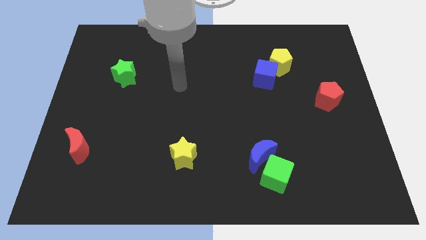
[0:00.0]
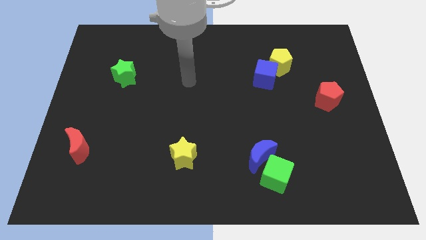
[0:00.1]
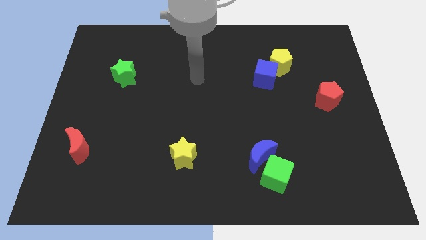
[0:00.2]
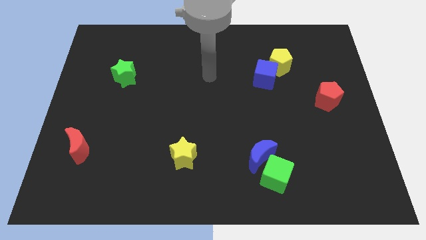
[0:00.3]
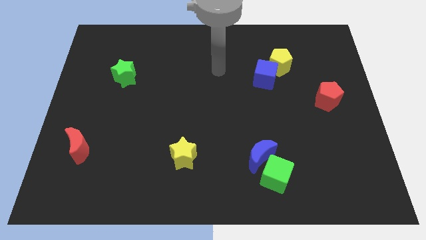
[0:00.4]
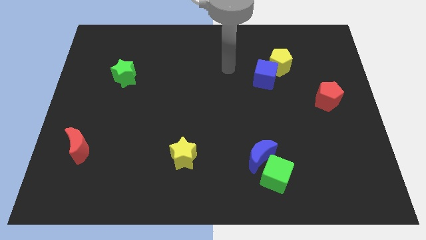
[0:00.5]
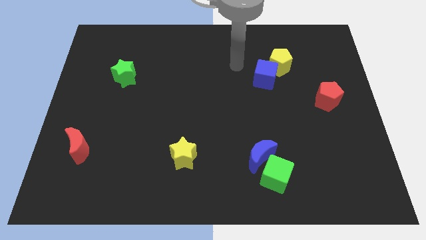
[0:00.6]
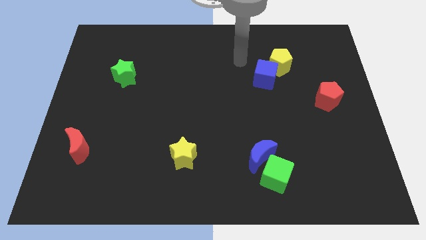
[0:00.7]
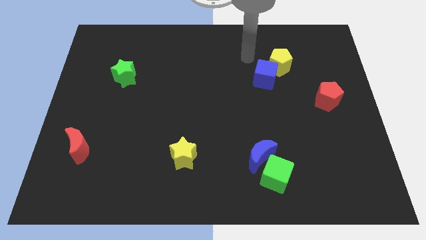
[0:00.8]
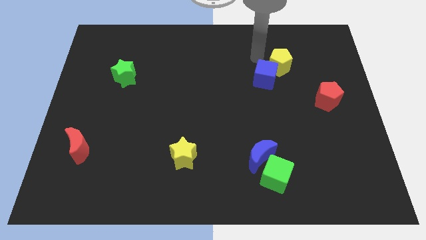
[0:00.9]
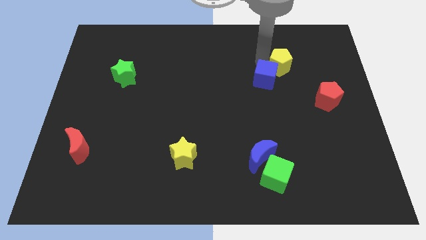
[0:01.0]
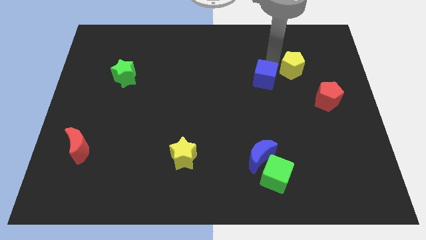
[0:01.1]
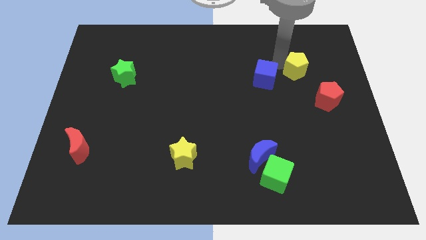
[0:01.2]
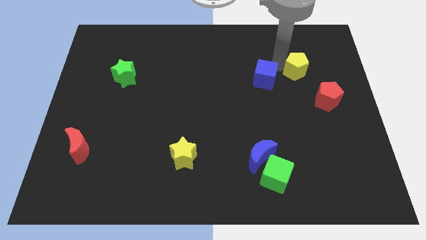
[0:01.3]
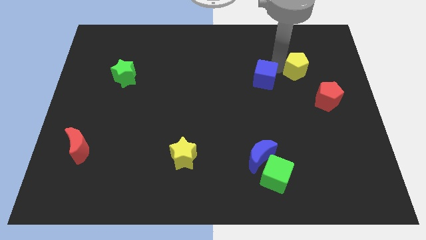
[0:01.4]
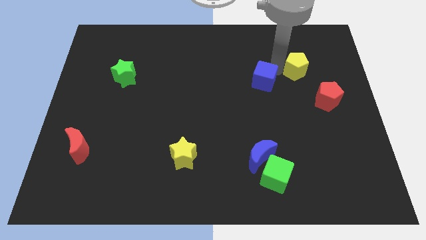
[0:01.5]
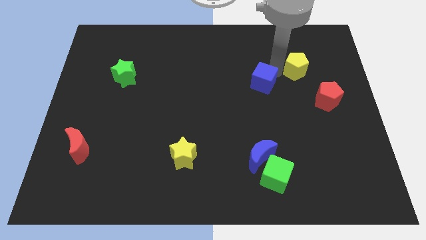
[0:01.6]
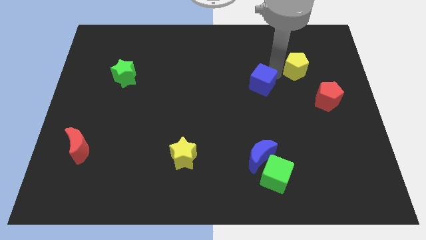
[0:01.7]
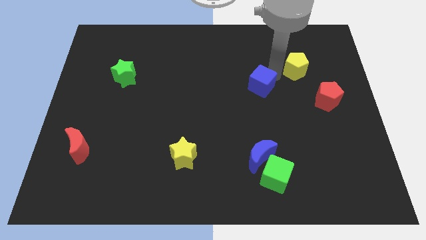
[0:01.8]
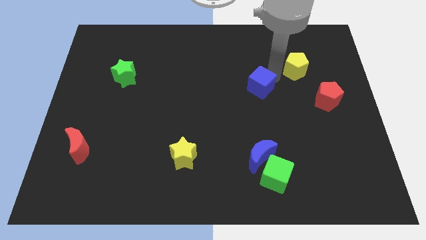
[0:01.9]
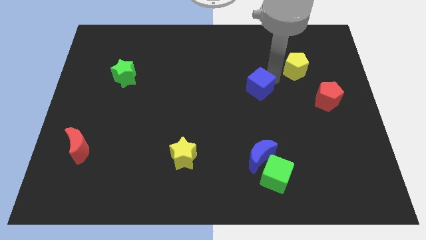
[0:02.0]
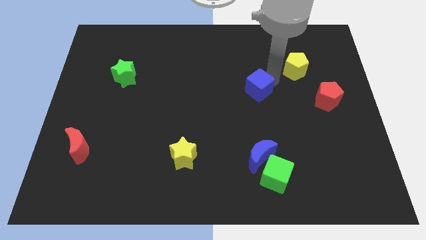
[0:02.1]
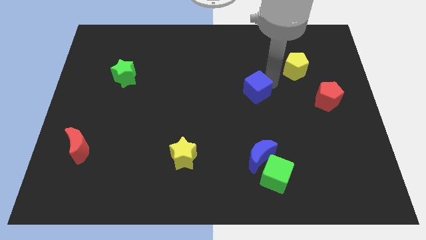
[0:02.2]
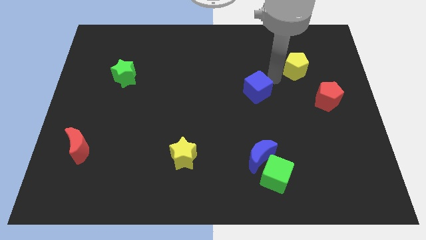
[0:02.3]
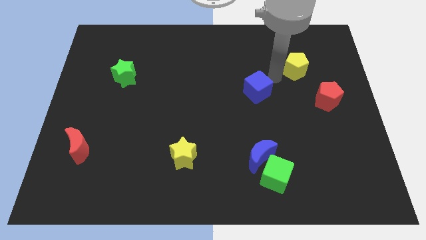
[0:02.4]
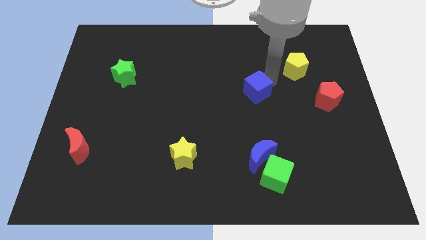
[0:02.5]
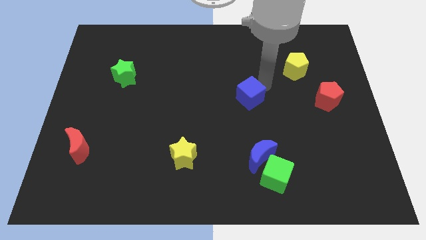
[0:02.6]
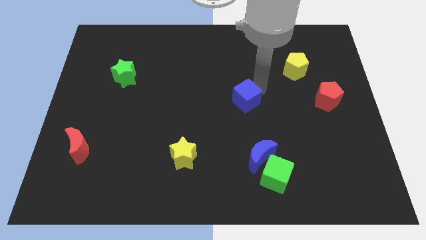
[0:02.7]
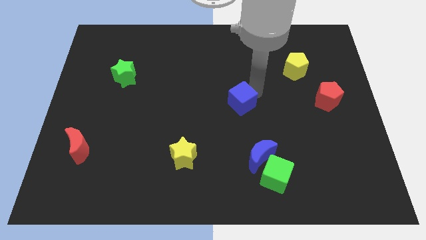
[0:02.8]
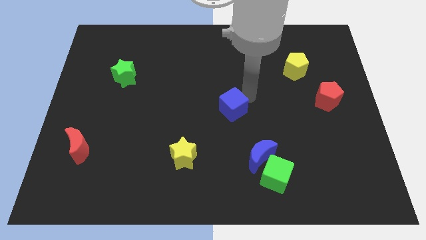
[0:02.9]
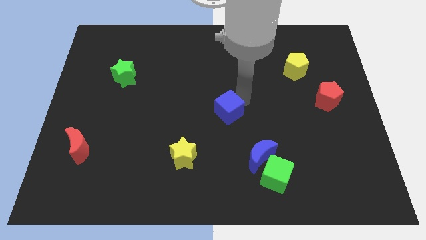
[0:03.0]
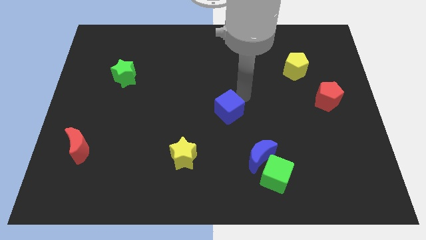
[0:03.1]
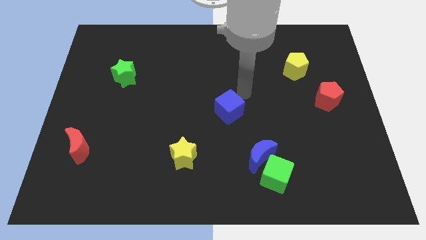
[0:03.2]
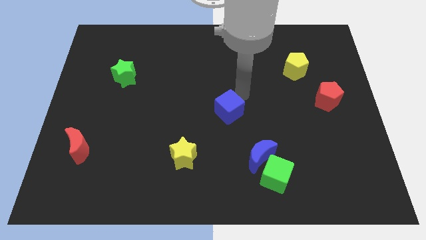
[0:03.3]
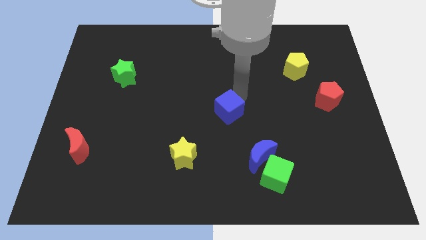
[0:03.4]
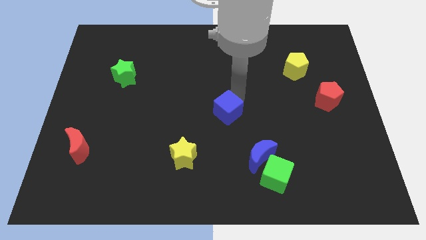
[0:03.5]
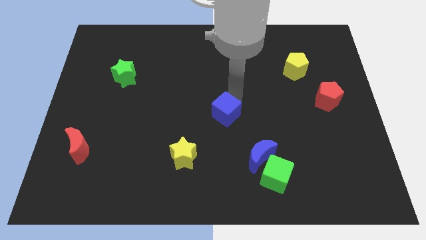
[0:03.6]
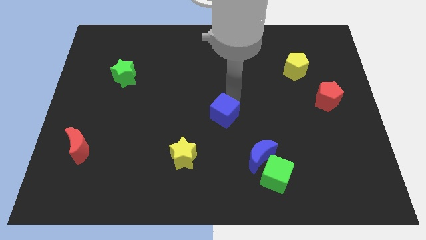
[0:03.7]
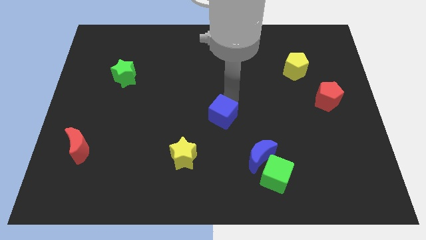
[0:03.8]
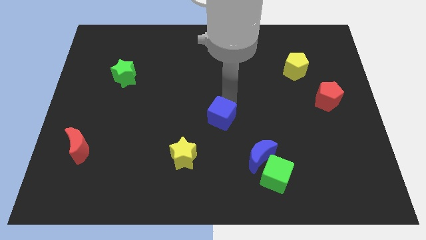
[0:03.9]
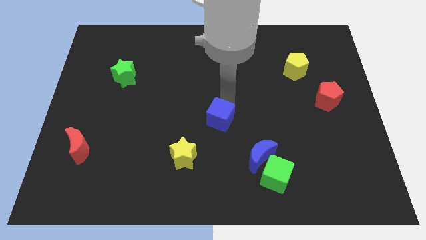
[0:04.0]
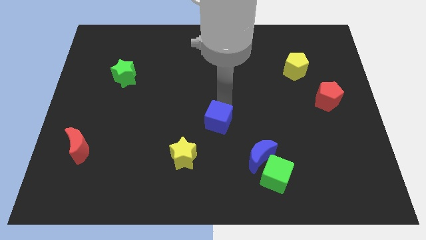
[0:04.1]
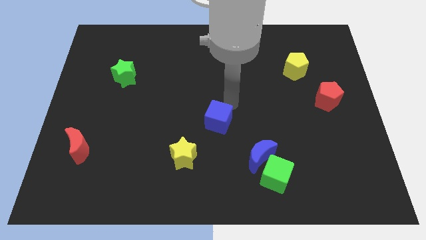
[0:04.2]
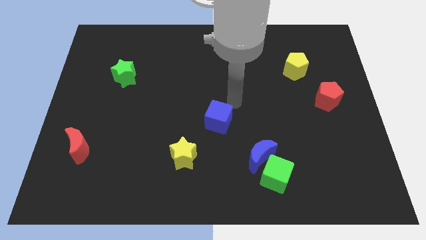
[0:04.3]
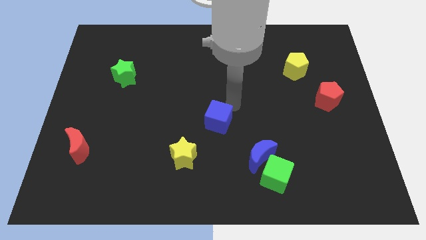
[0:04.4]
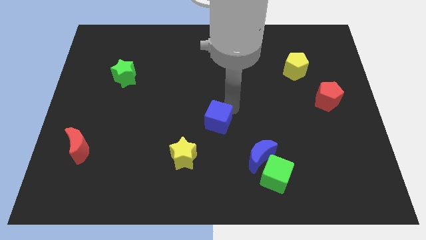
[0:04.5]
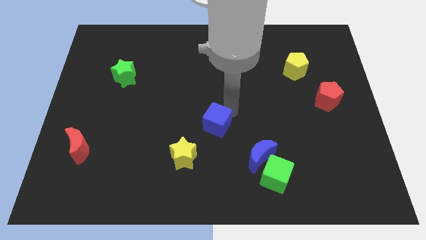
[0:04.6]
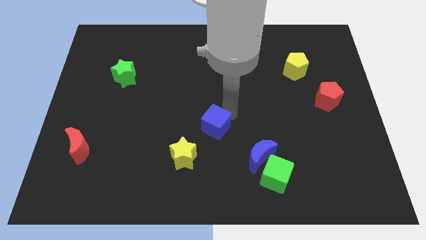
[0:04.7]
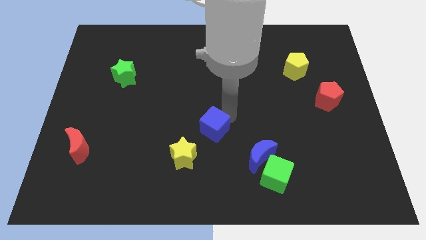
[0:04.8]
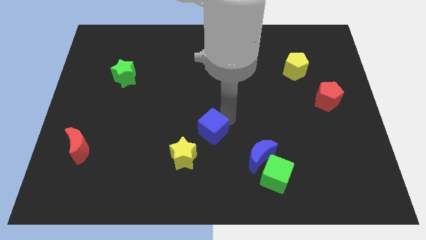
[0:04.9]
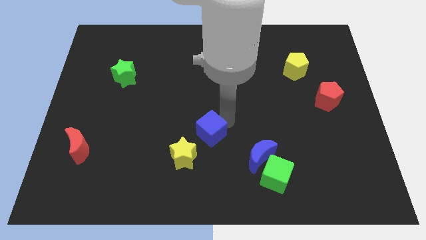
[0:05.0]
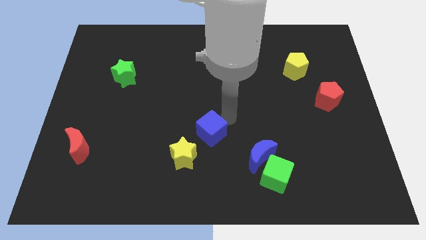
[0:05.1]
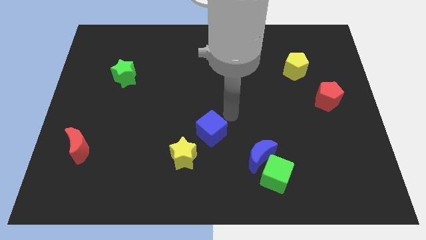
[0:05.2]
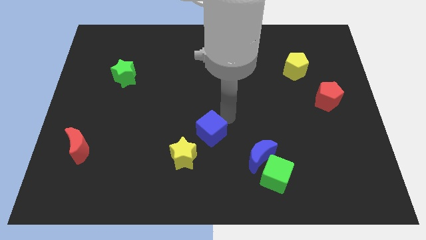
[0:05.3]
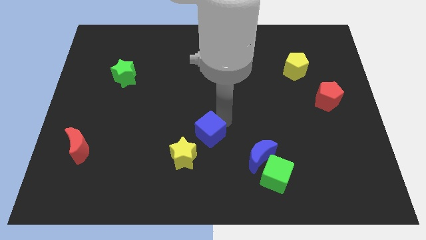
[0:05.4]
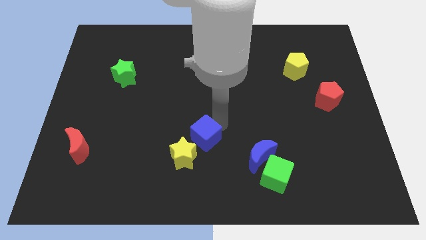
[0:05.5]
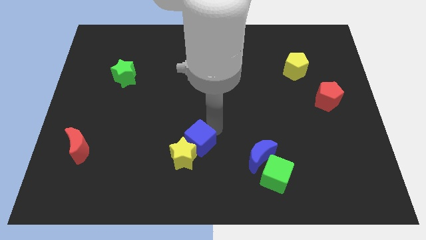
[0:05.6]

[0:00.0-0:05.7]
push the blue cube to the yellow star

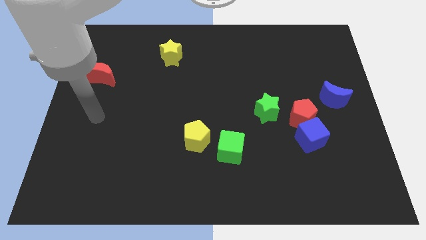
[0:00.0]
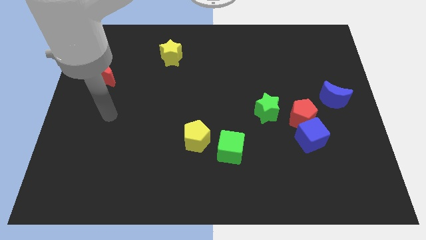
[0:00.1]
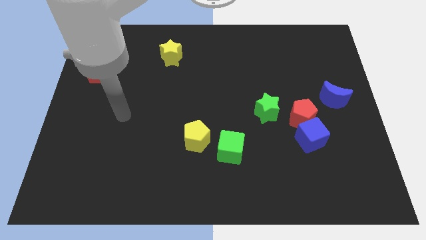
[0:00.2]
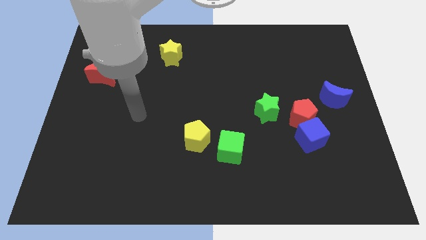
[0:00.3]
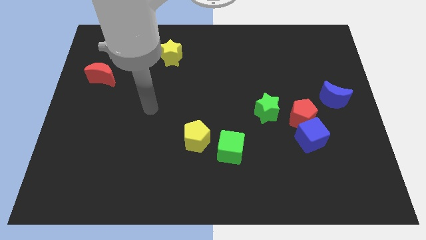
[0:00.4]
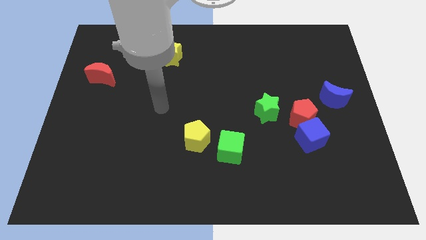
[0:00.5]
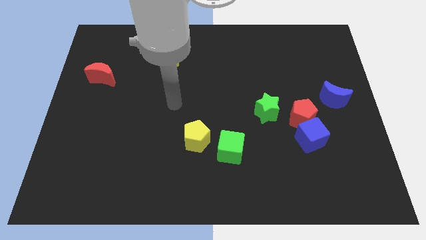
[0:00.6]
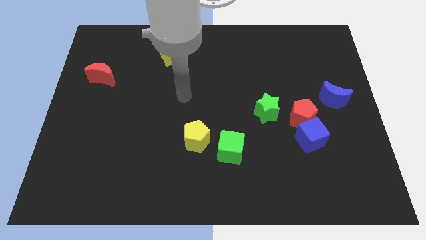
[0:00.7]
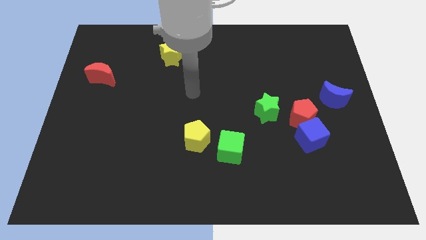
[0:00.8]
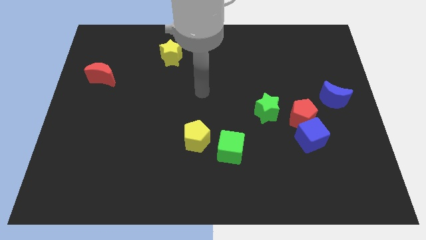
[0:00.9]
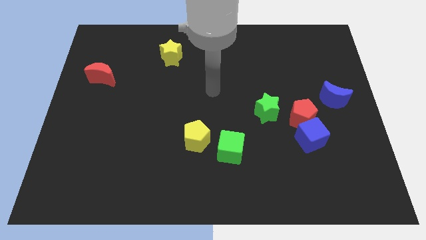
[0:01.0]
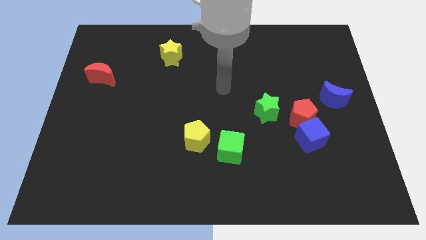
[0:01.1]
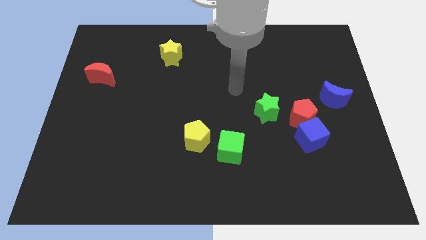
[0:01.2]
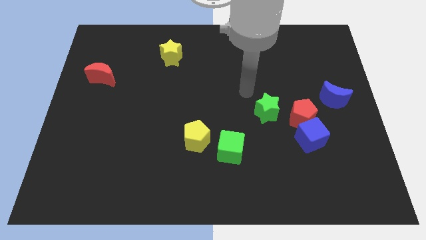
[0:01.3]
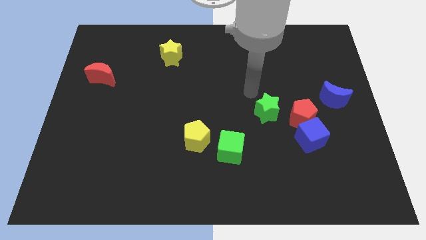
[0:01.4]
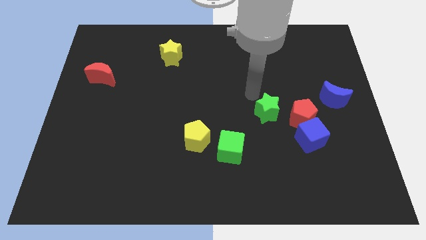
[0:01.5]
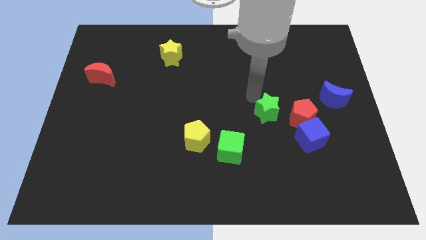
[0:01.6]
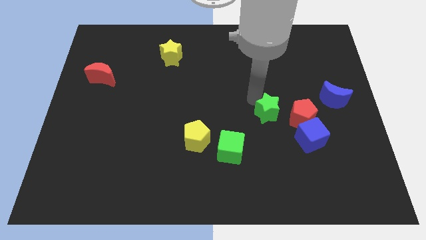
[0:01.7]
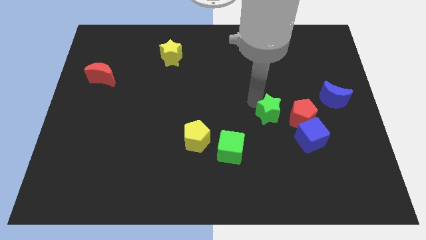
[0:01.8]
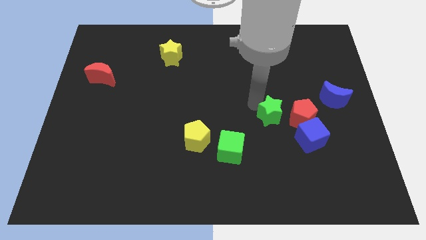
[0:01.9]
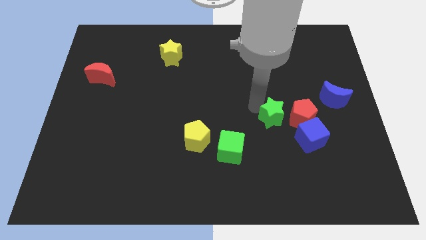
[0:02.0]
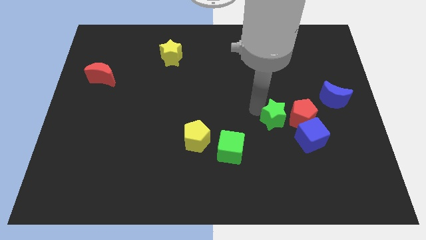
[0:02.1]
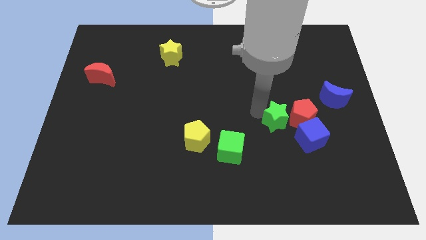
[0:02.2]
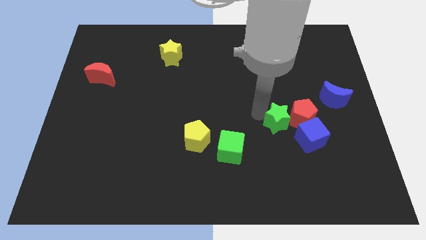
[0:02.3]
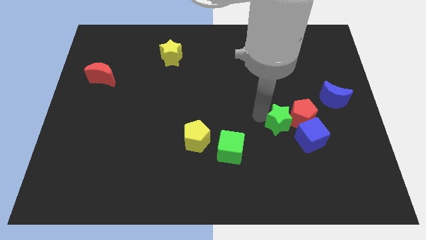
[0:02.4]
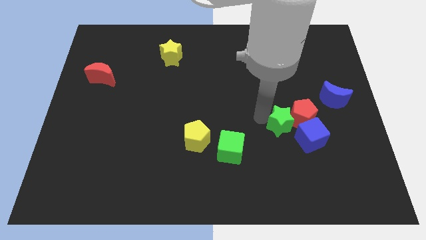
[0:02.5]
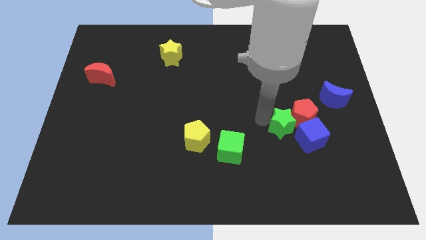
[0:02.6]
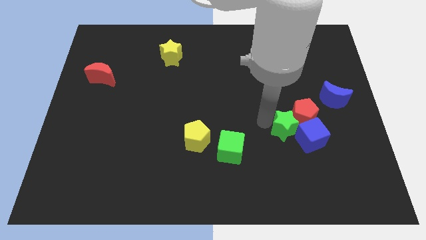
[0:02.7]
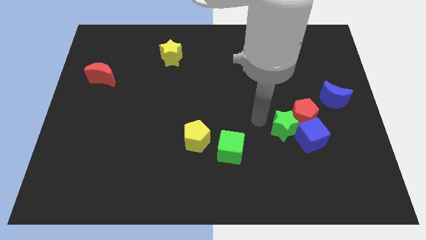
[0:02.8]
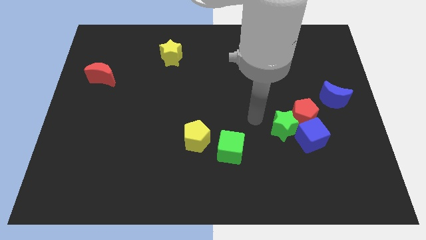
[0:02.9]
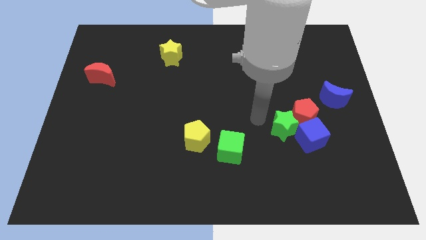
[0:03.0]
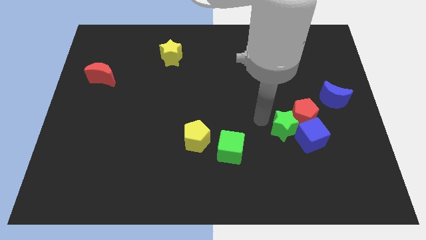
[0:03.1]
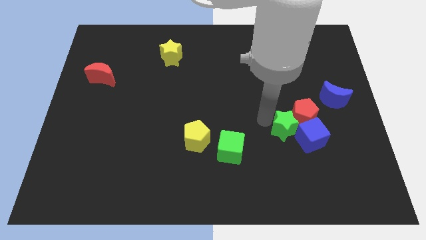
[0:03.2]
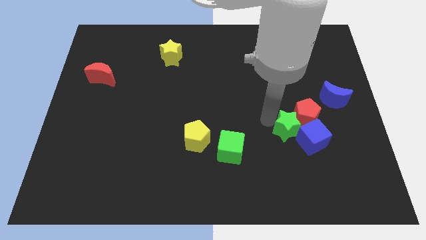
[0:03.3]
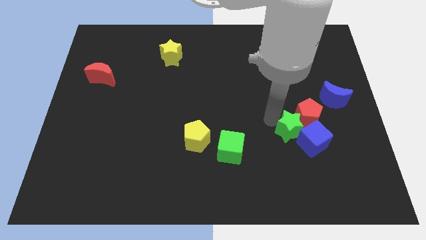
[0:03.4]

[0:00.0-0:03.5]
push the green star close to the blue cube
